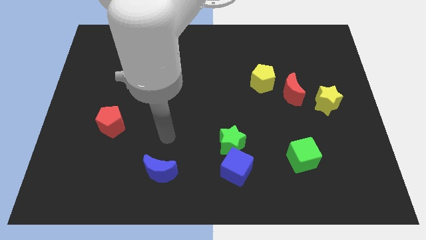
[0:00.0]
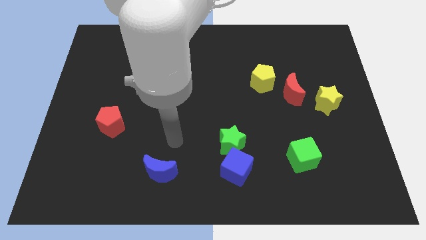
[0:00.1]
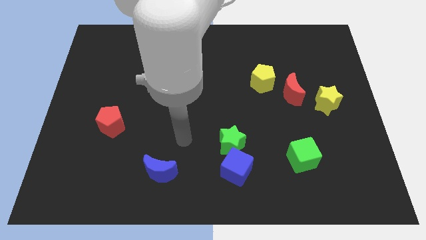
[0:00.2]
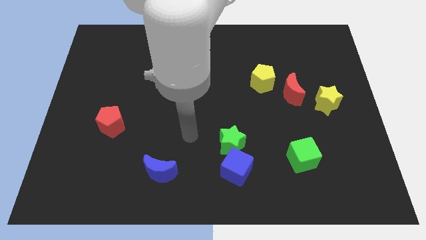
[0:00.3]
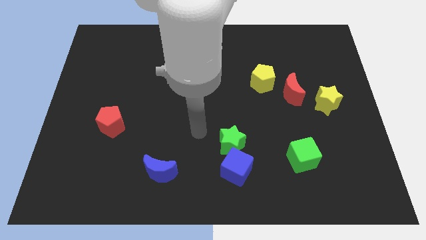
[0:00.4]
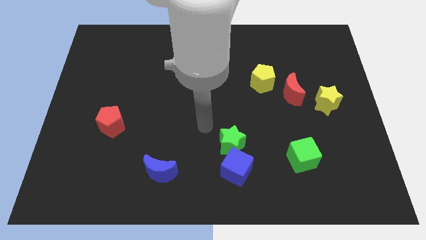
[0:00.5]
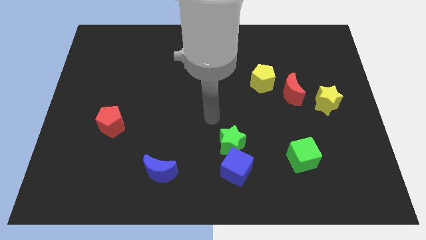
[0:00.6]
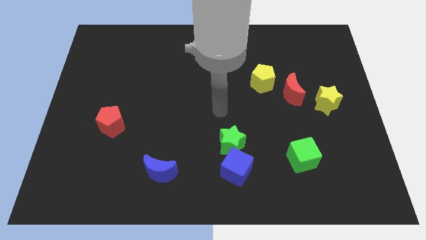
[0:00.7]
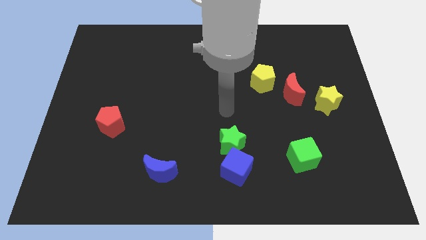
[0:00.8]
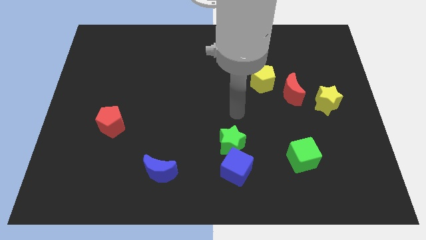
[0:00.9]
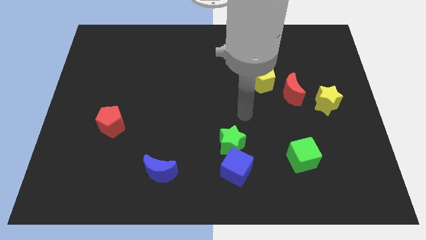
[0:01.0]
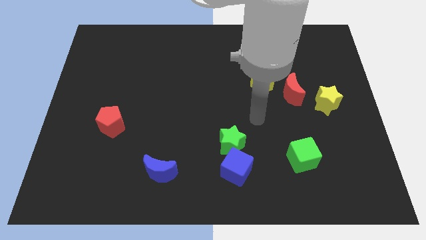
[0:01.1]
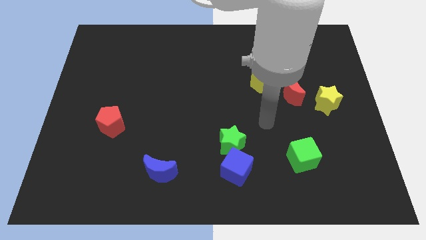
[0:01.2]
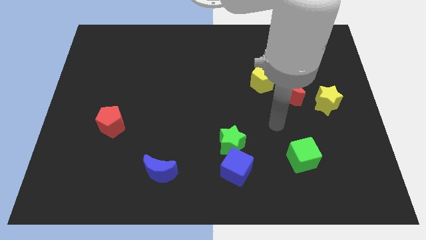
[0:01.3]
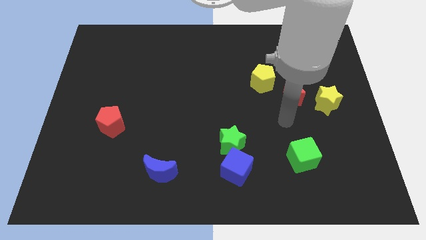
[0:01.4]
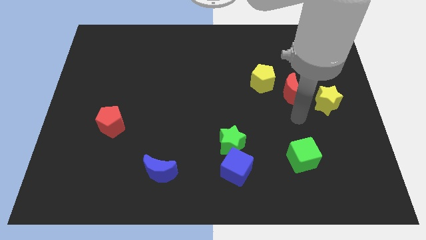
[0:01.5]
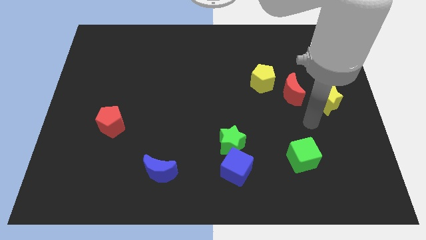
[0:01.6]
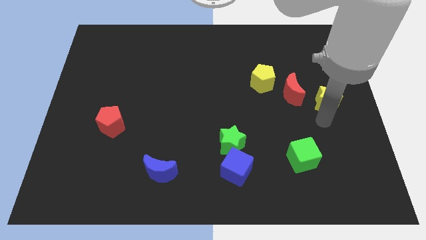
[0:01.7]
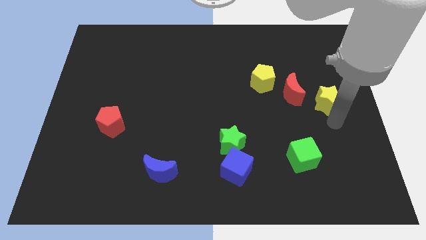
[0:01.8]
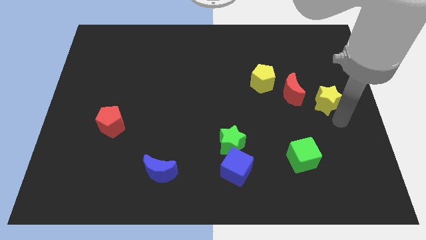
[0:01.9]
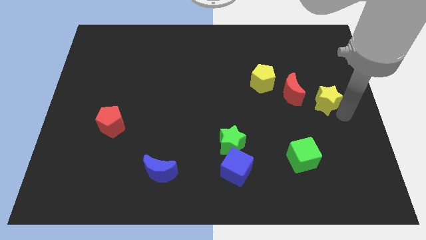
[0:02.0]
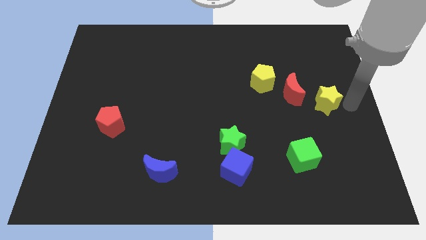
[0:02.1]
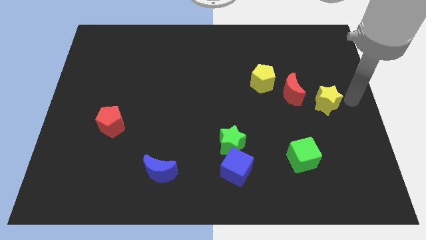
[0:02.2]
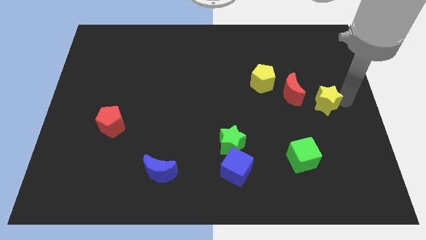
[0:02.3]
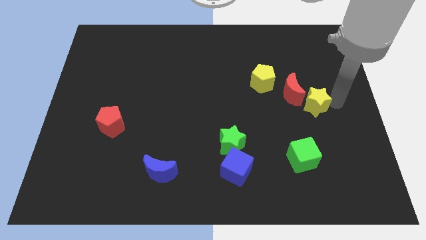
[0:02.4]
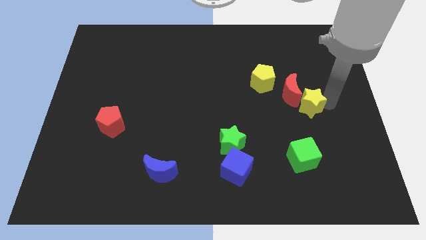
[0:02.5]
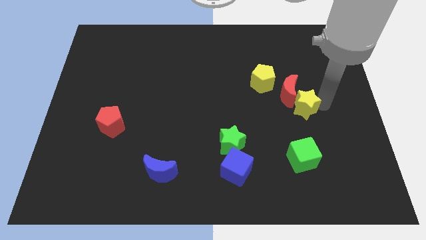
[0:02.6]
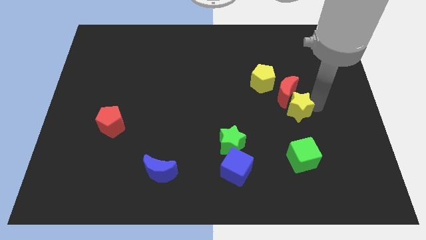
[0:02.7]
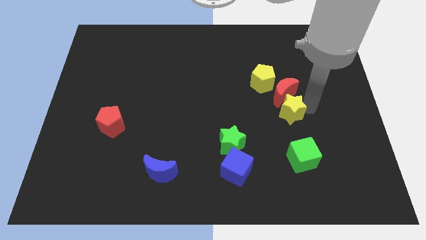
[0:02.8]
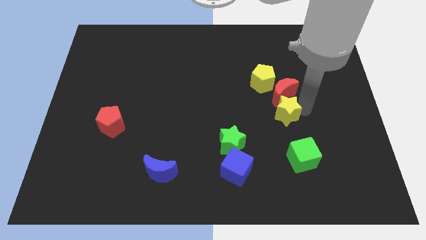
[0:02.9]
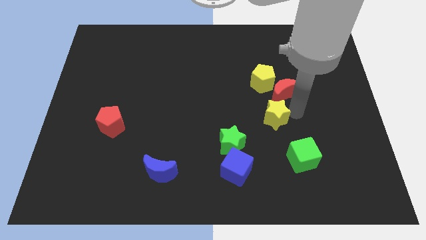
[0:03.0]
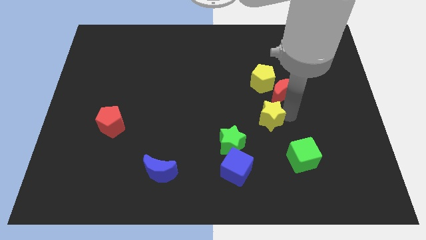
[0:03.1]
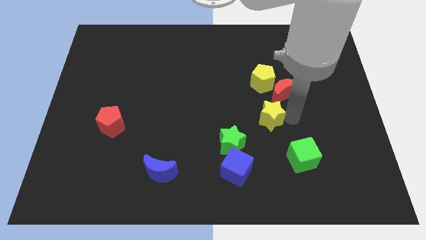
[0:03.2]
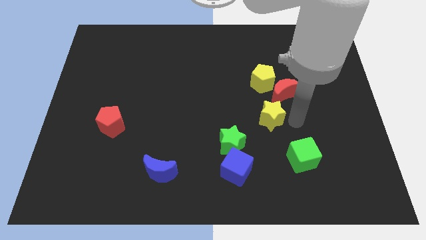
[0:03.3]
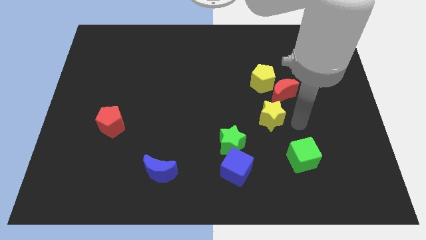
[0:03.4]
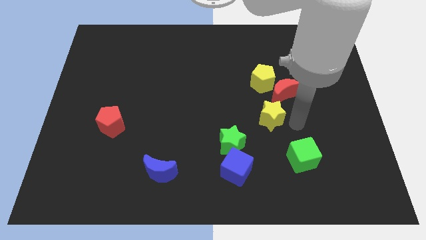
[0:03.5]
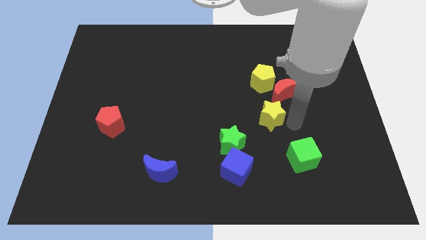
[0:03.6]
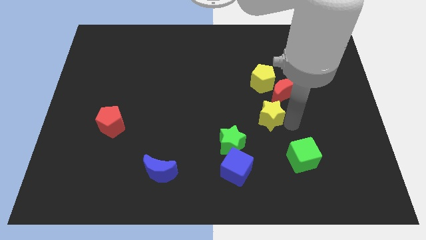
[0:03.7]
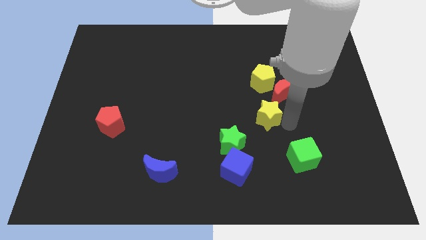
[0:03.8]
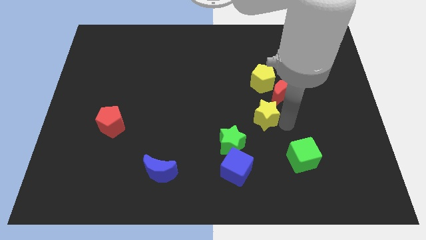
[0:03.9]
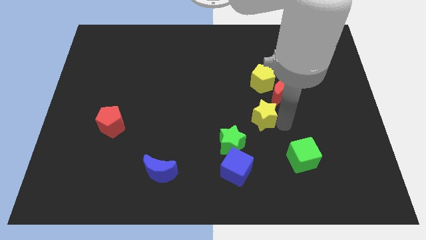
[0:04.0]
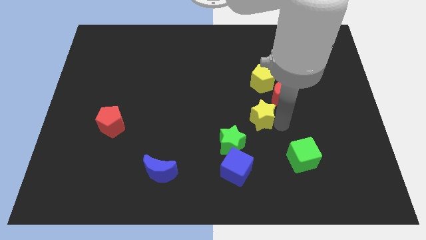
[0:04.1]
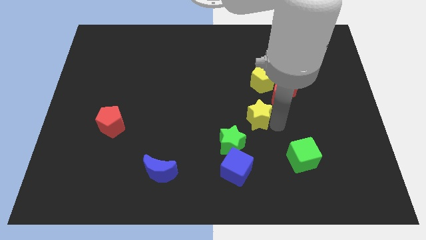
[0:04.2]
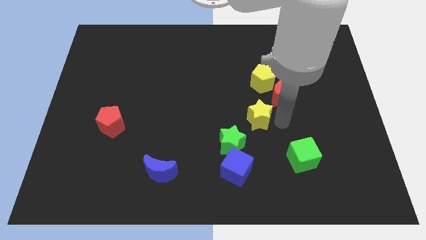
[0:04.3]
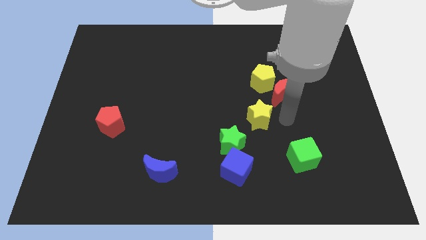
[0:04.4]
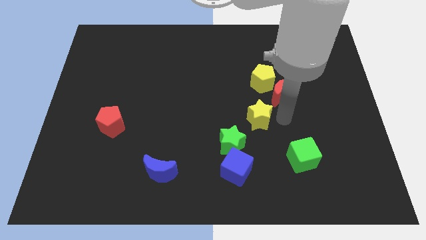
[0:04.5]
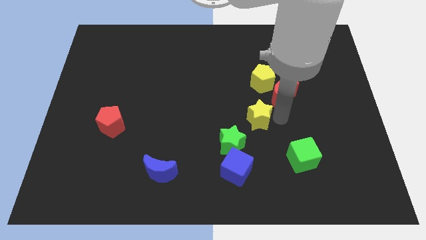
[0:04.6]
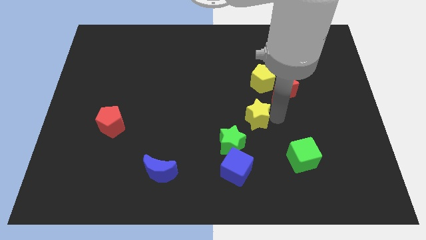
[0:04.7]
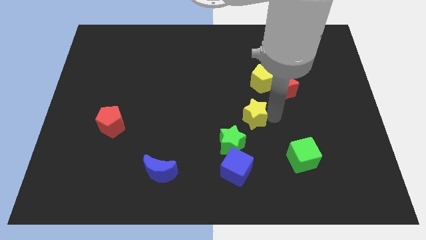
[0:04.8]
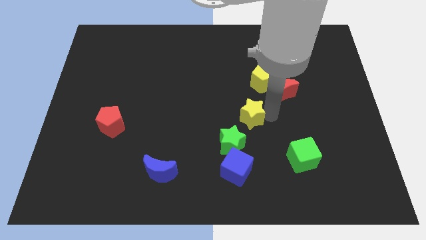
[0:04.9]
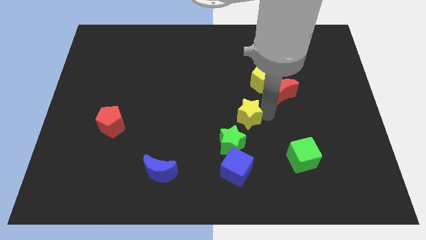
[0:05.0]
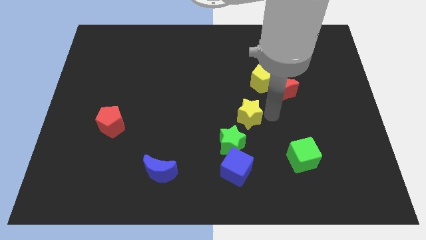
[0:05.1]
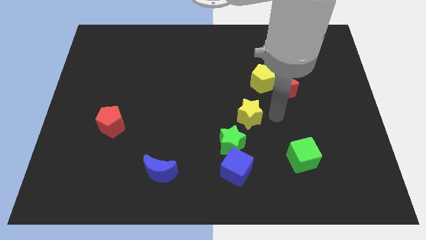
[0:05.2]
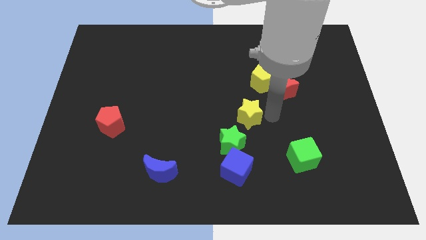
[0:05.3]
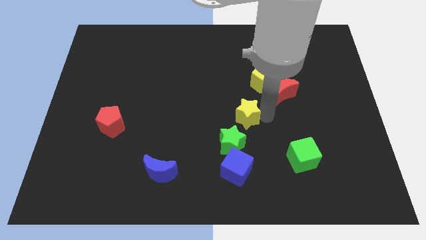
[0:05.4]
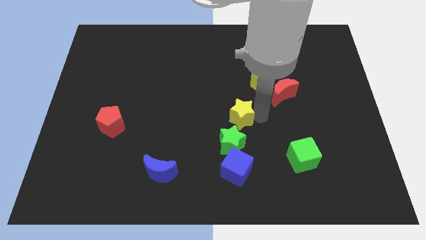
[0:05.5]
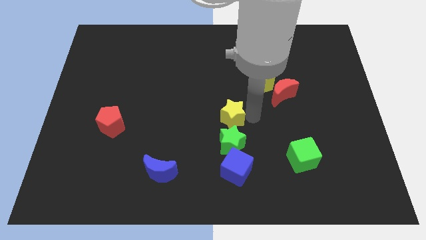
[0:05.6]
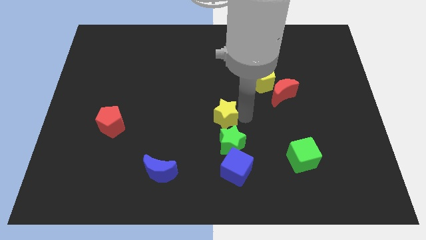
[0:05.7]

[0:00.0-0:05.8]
push the yellow star to the top left side of the green star

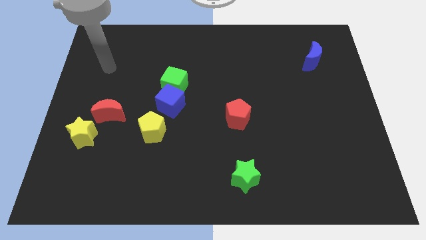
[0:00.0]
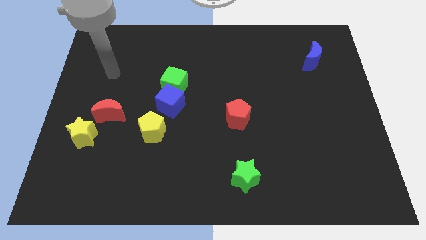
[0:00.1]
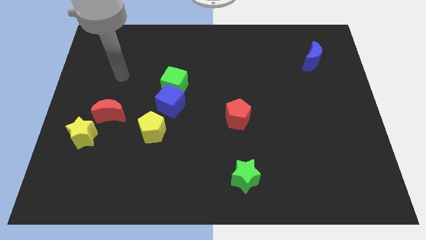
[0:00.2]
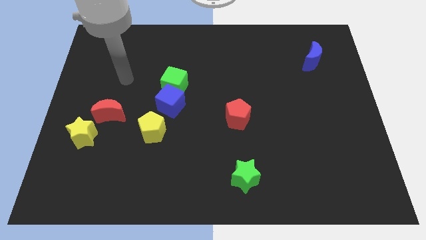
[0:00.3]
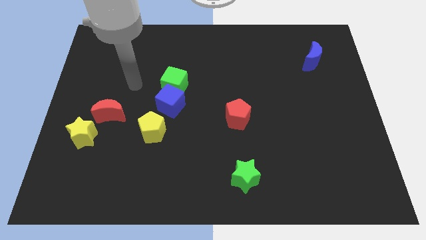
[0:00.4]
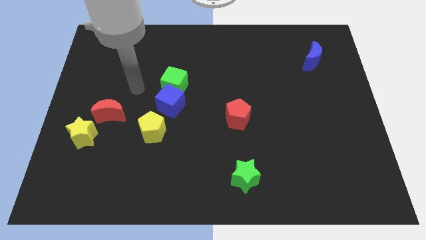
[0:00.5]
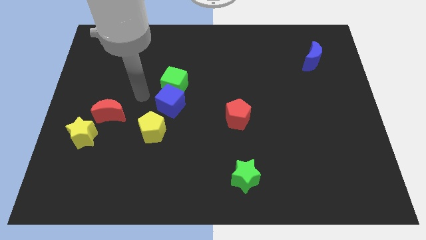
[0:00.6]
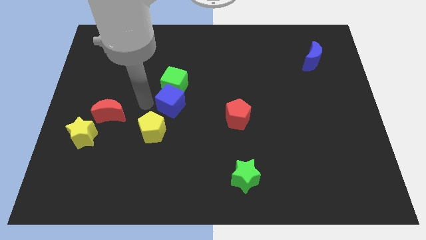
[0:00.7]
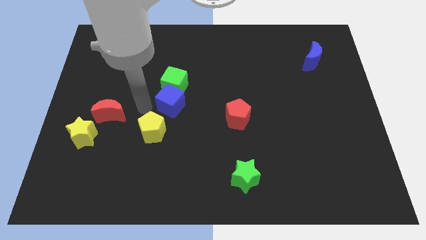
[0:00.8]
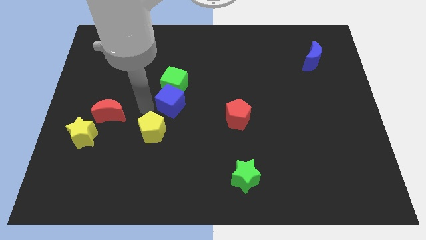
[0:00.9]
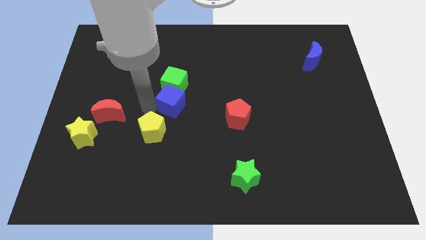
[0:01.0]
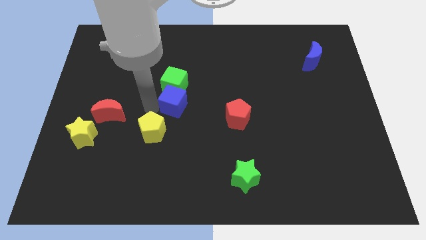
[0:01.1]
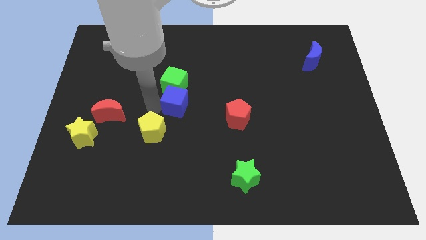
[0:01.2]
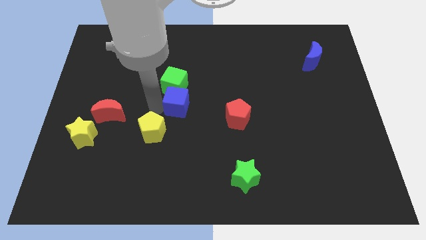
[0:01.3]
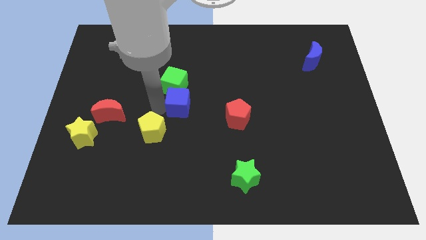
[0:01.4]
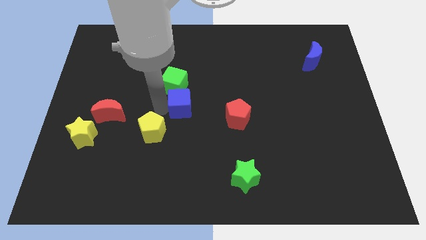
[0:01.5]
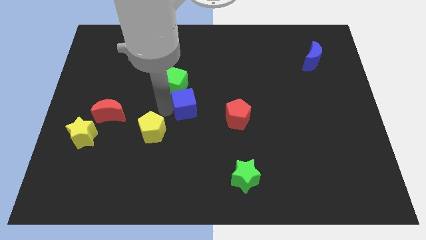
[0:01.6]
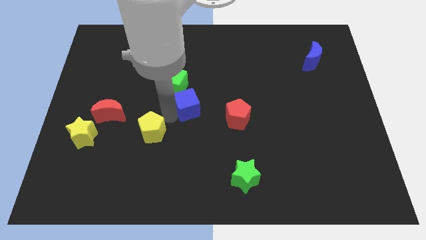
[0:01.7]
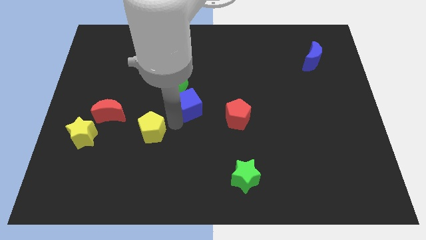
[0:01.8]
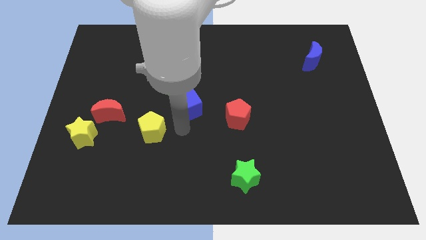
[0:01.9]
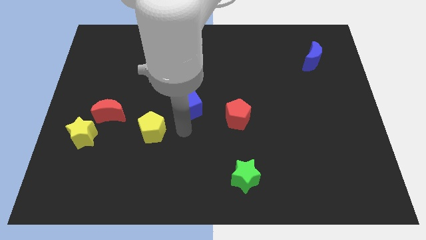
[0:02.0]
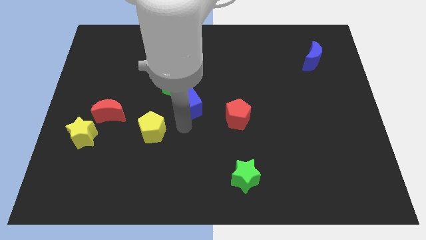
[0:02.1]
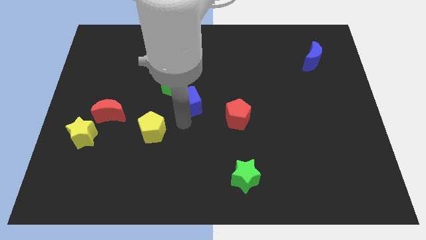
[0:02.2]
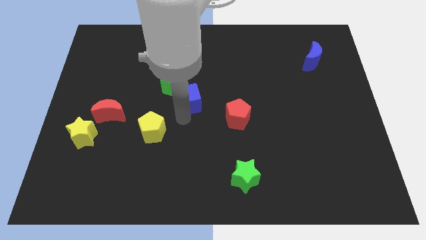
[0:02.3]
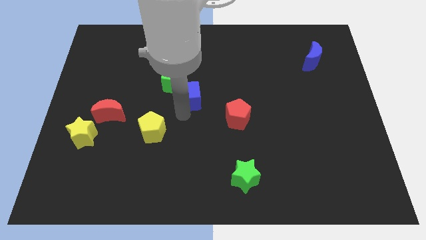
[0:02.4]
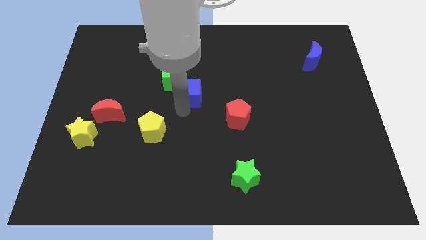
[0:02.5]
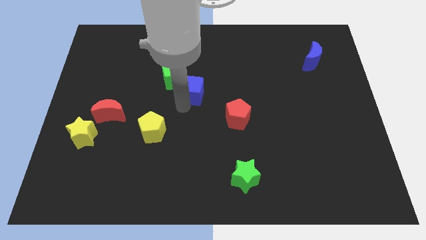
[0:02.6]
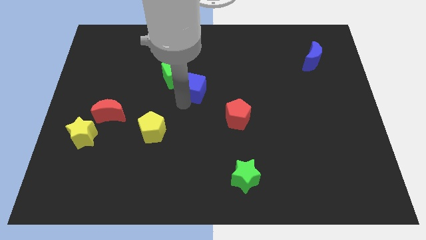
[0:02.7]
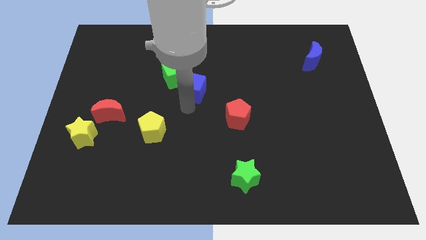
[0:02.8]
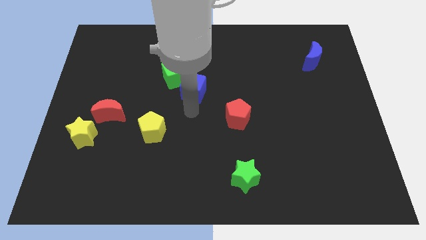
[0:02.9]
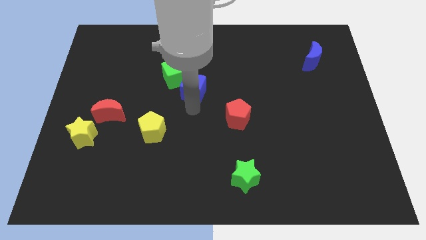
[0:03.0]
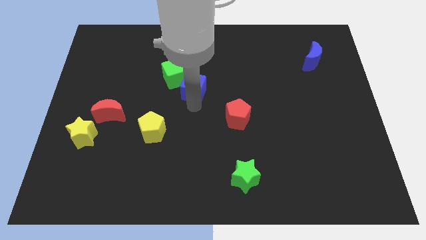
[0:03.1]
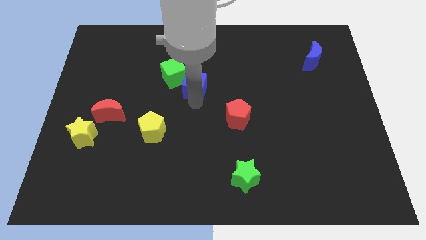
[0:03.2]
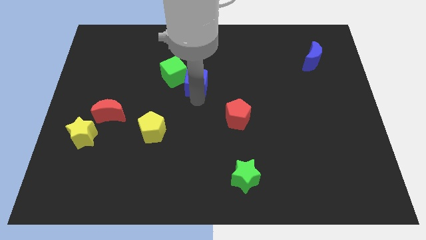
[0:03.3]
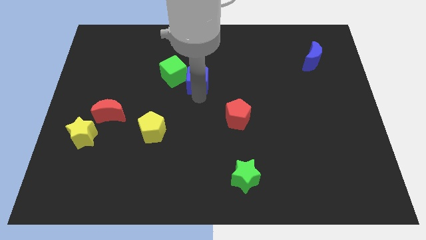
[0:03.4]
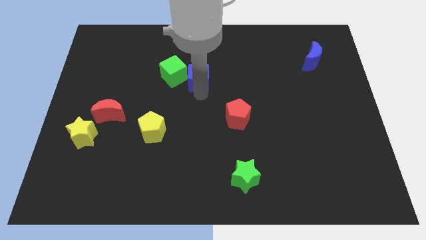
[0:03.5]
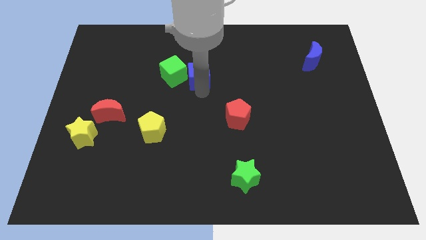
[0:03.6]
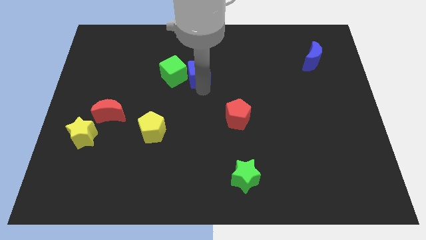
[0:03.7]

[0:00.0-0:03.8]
put the blue cube to the top right side of the green cube
